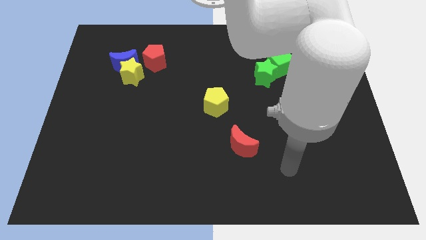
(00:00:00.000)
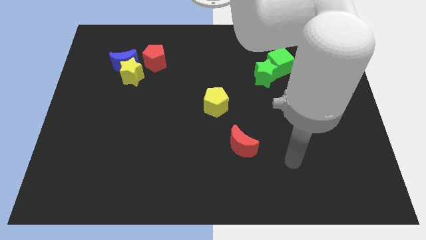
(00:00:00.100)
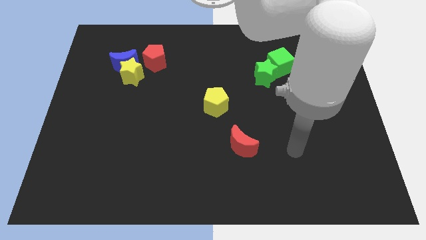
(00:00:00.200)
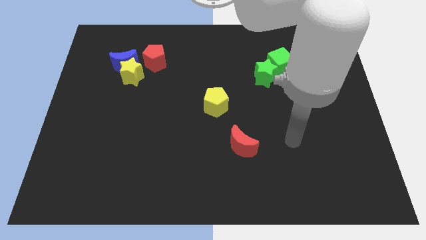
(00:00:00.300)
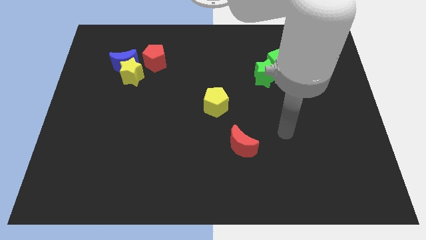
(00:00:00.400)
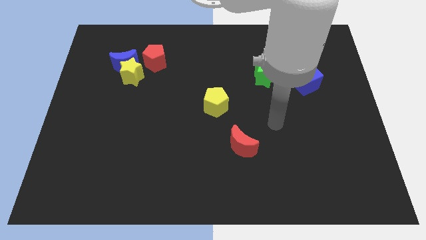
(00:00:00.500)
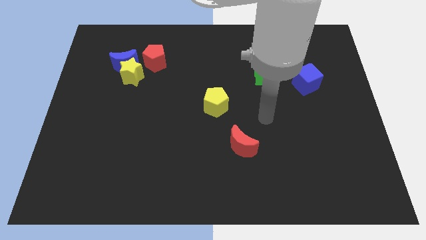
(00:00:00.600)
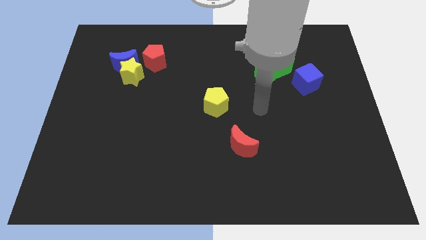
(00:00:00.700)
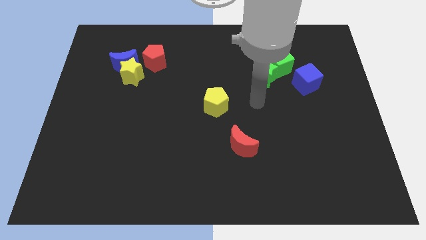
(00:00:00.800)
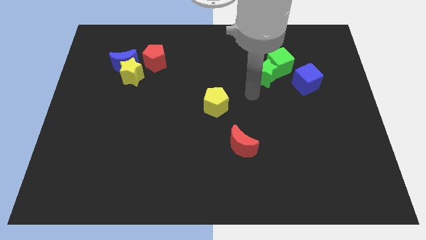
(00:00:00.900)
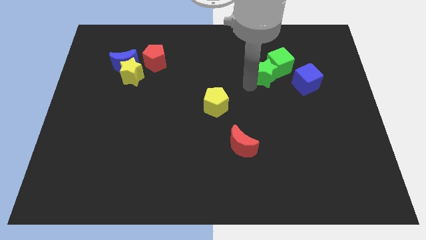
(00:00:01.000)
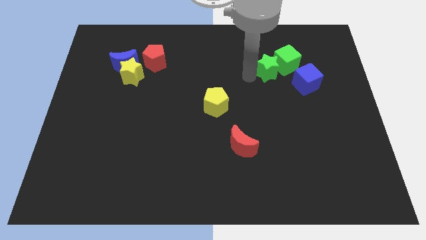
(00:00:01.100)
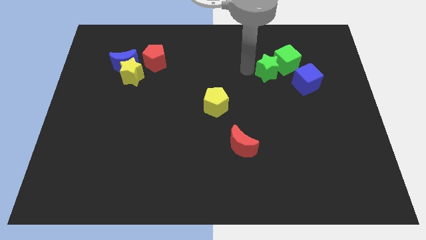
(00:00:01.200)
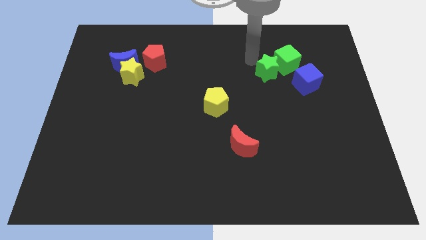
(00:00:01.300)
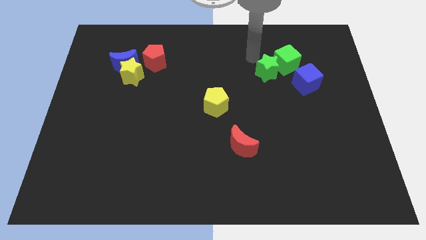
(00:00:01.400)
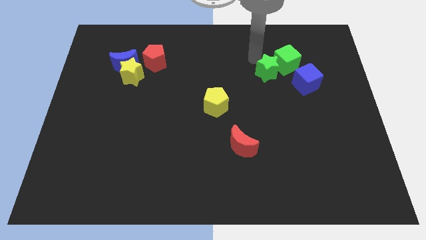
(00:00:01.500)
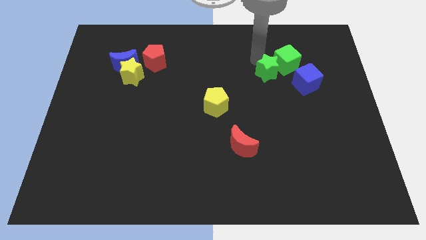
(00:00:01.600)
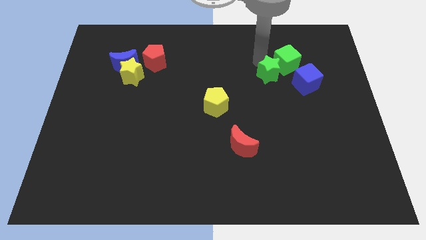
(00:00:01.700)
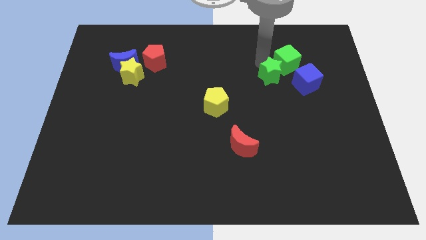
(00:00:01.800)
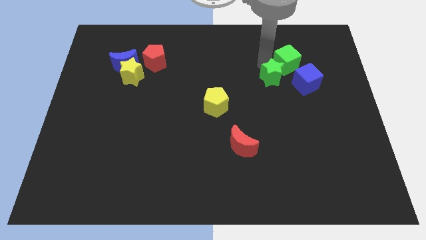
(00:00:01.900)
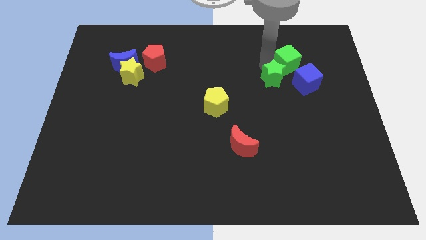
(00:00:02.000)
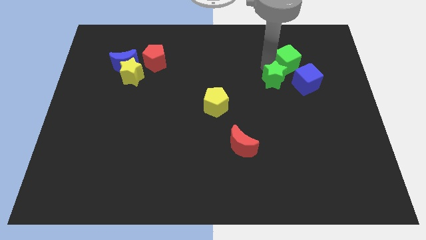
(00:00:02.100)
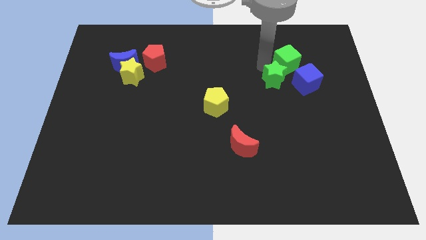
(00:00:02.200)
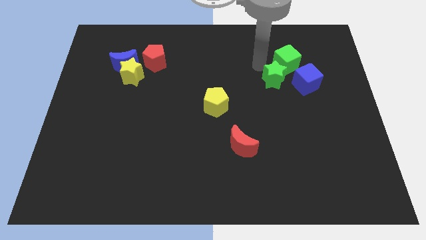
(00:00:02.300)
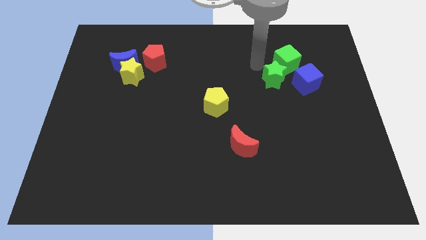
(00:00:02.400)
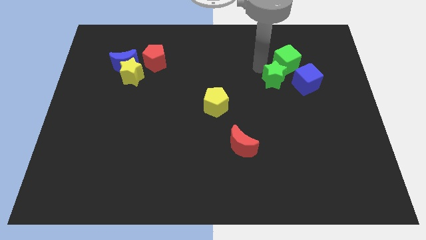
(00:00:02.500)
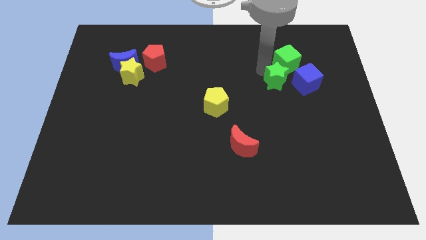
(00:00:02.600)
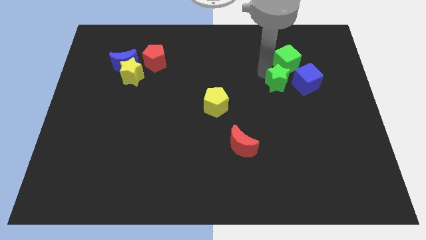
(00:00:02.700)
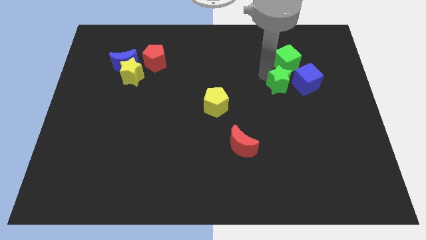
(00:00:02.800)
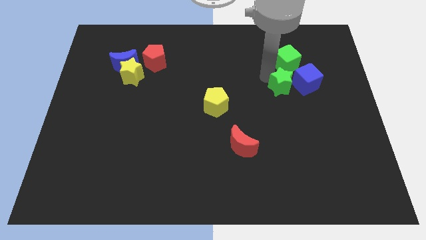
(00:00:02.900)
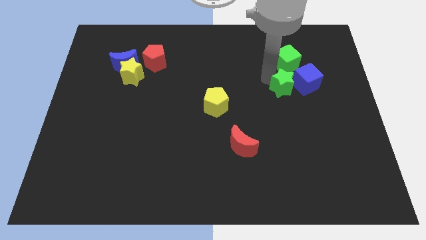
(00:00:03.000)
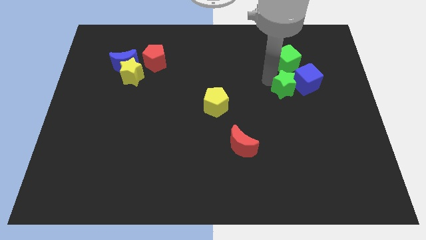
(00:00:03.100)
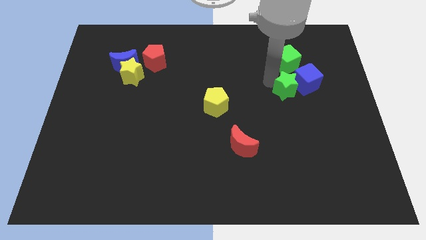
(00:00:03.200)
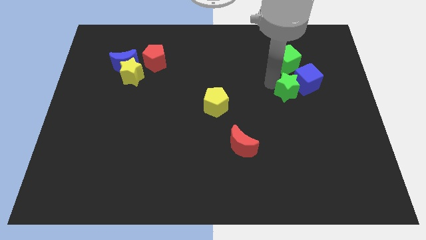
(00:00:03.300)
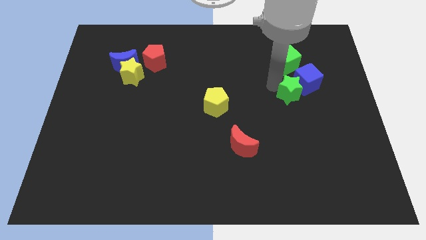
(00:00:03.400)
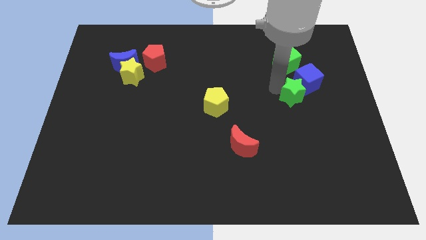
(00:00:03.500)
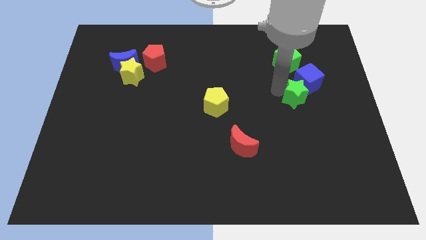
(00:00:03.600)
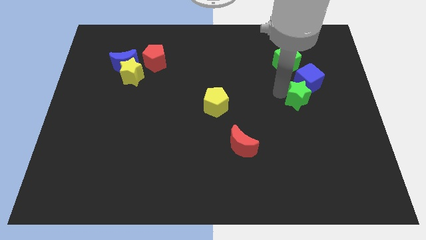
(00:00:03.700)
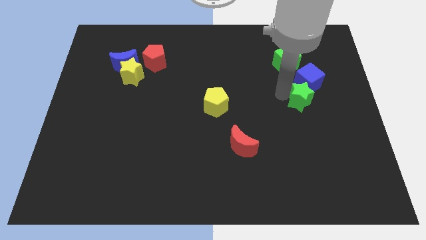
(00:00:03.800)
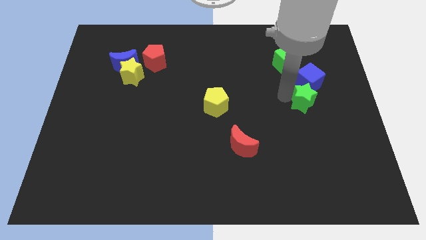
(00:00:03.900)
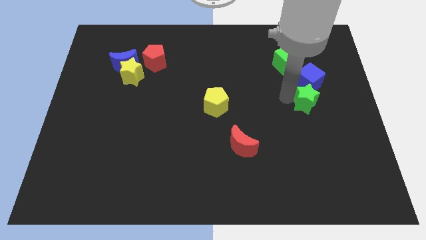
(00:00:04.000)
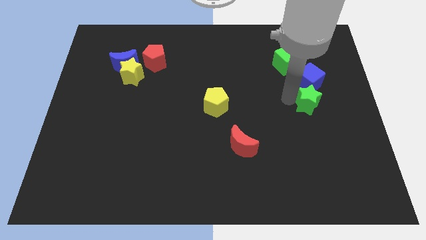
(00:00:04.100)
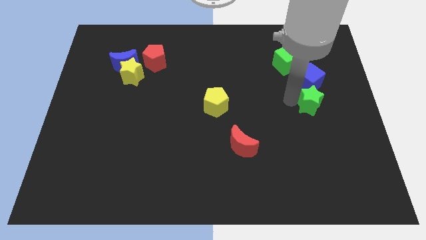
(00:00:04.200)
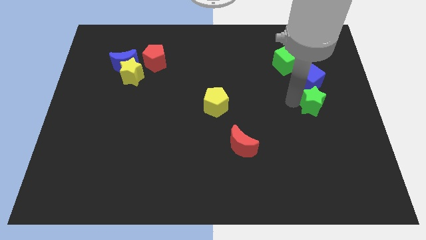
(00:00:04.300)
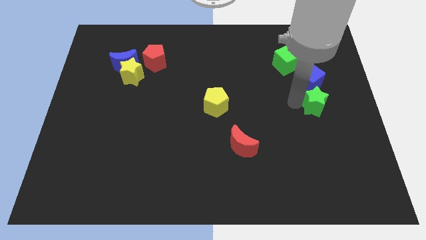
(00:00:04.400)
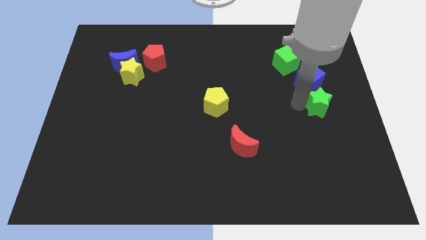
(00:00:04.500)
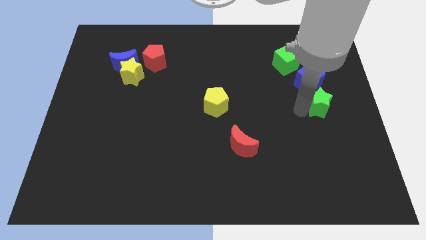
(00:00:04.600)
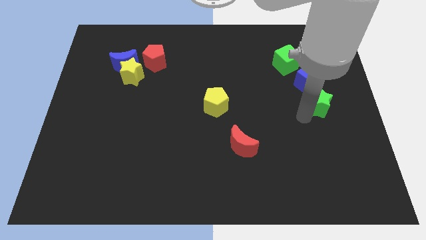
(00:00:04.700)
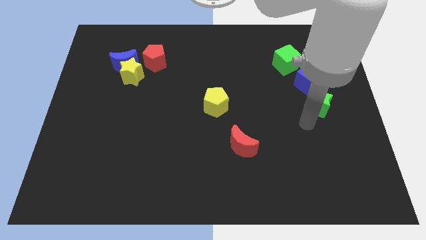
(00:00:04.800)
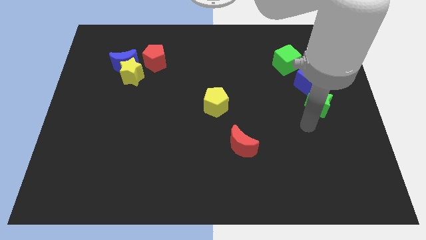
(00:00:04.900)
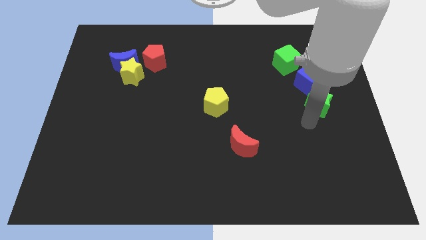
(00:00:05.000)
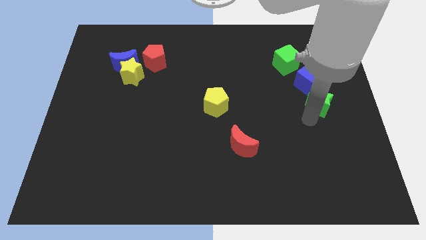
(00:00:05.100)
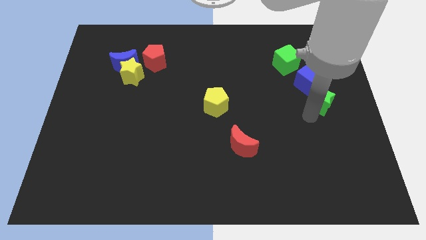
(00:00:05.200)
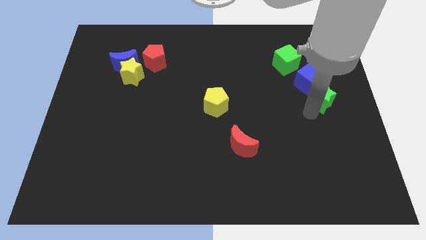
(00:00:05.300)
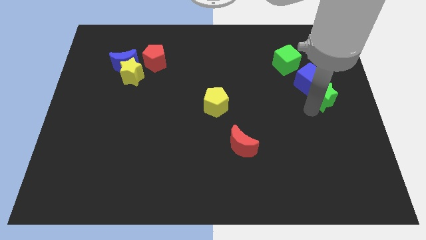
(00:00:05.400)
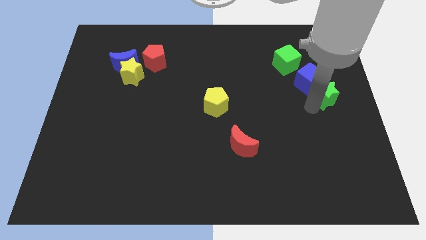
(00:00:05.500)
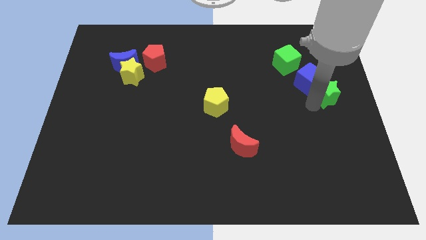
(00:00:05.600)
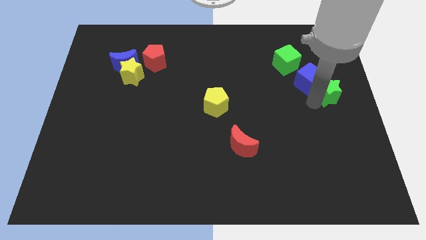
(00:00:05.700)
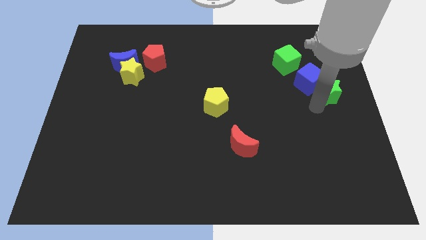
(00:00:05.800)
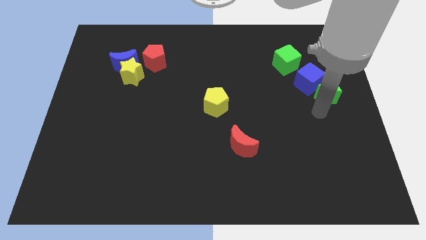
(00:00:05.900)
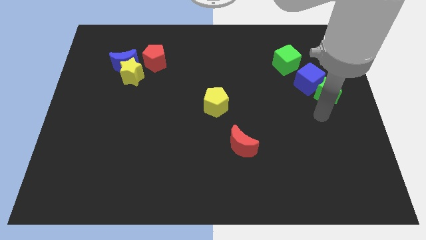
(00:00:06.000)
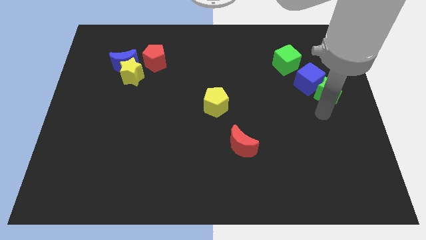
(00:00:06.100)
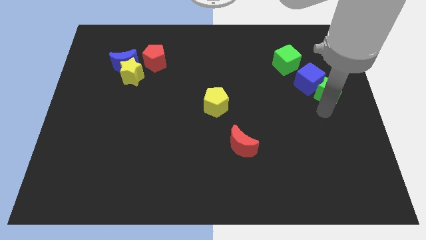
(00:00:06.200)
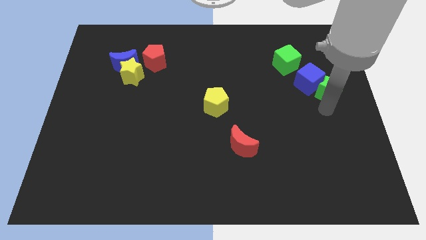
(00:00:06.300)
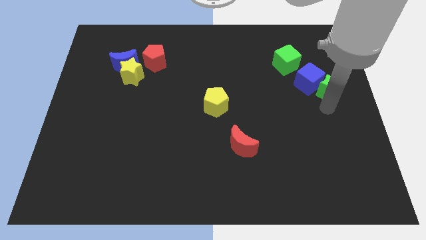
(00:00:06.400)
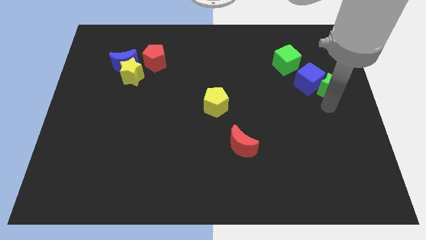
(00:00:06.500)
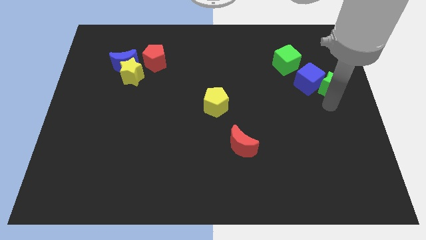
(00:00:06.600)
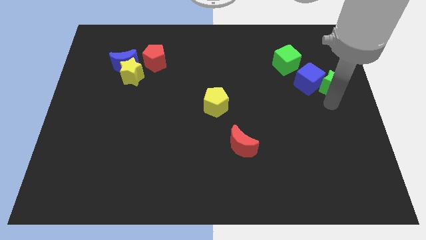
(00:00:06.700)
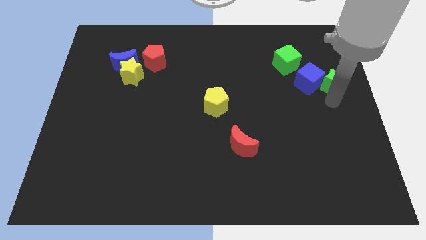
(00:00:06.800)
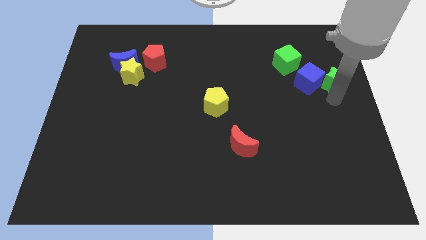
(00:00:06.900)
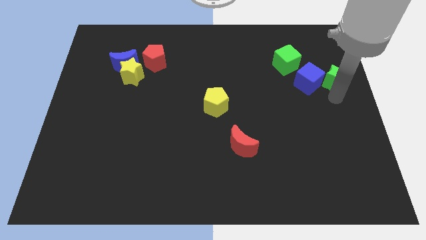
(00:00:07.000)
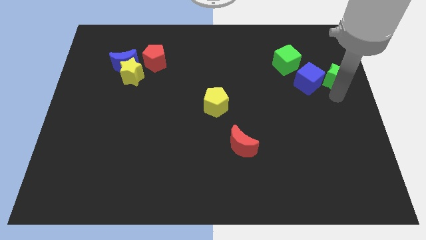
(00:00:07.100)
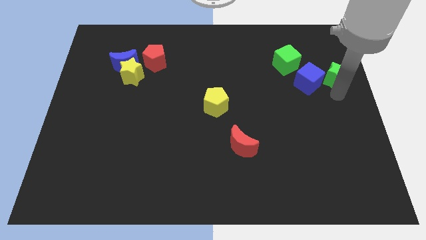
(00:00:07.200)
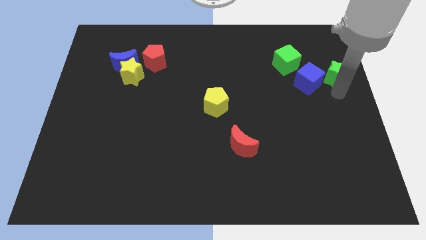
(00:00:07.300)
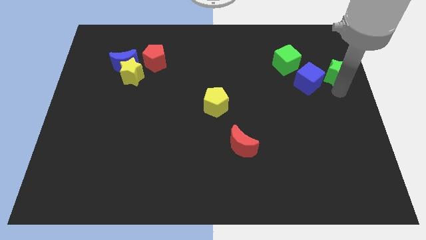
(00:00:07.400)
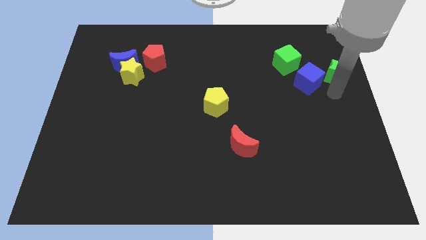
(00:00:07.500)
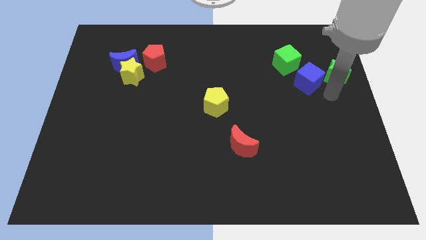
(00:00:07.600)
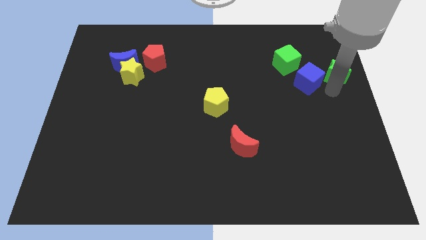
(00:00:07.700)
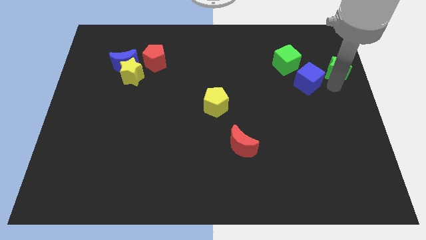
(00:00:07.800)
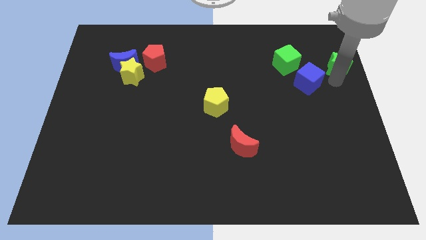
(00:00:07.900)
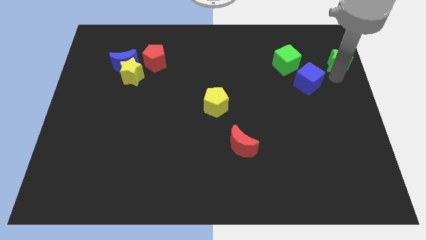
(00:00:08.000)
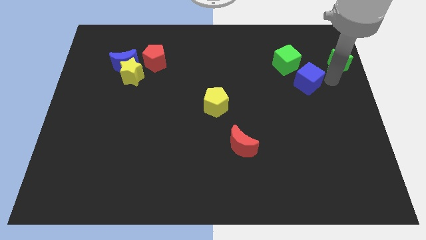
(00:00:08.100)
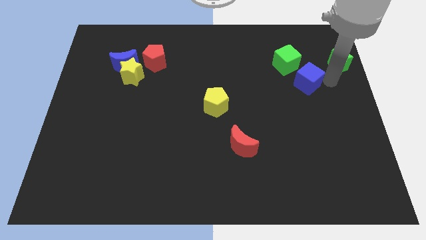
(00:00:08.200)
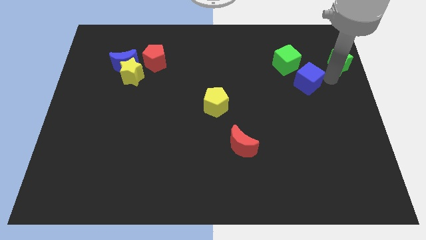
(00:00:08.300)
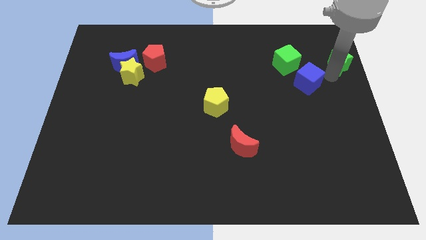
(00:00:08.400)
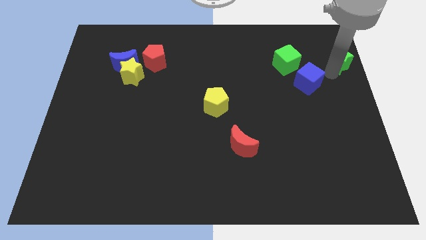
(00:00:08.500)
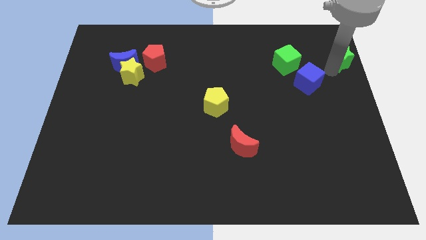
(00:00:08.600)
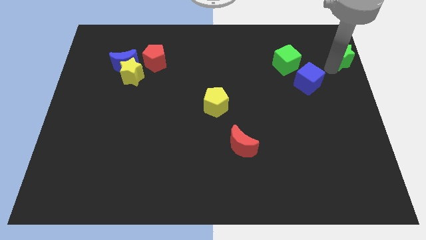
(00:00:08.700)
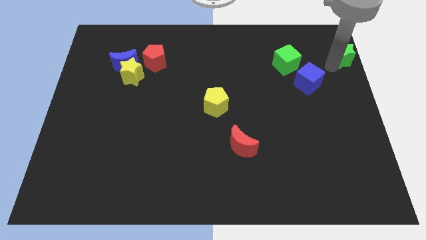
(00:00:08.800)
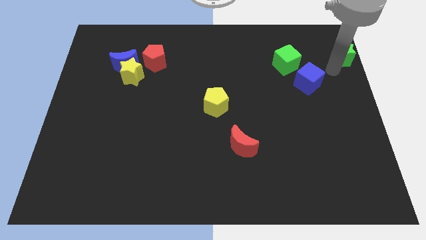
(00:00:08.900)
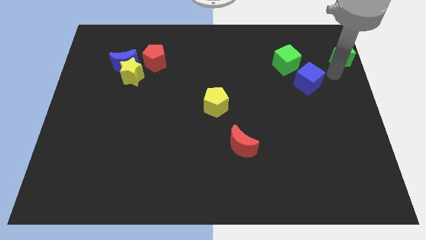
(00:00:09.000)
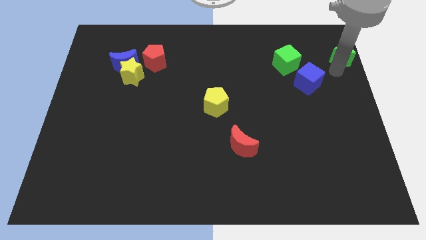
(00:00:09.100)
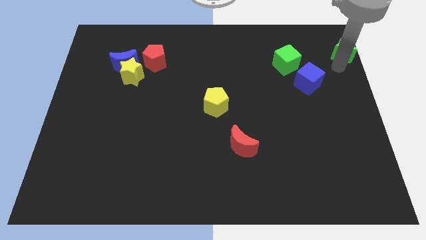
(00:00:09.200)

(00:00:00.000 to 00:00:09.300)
move the green star to the upper right corner
